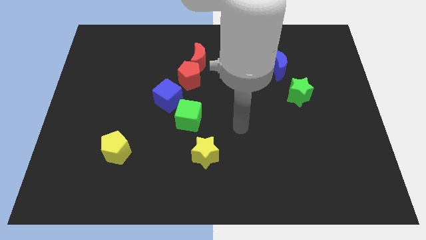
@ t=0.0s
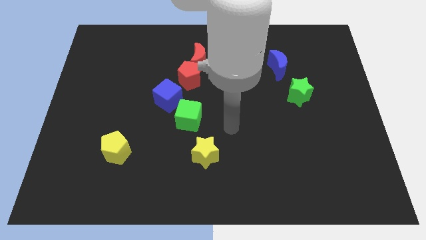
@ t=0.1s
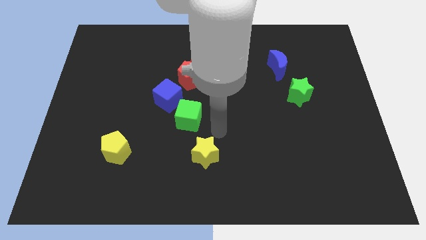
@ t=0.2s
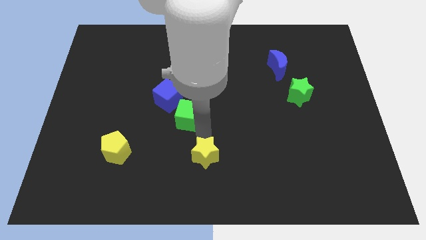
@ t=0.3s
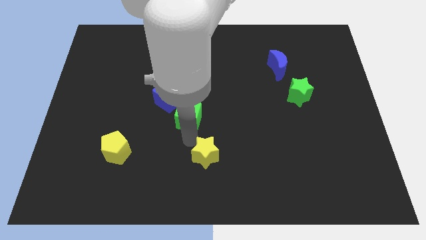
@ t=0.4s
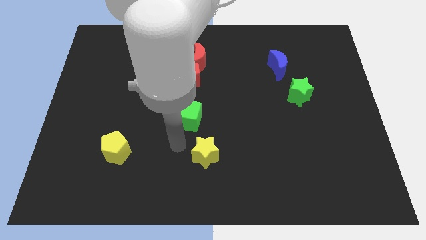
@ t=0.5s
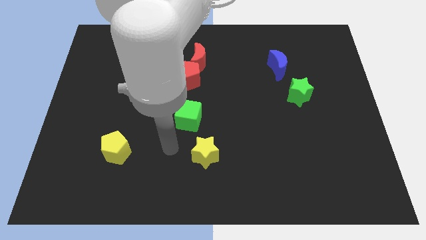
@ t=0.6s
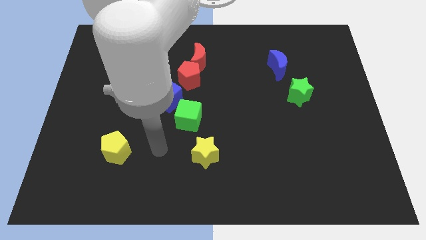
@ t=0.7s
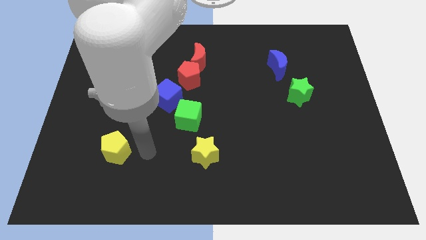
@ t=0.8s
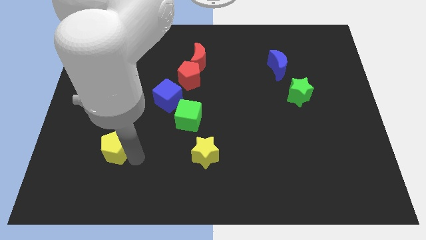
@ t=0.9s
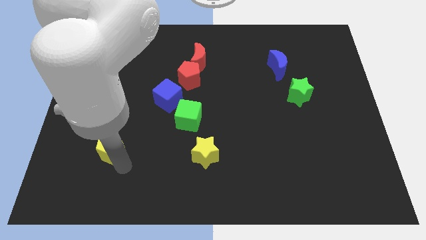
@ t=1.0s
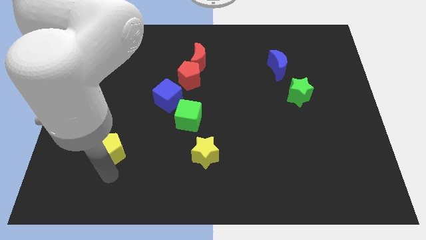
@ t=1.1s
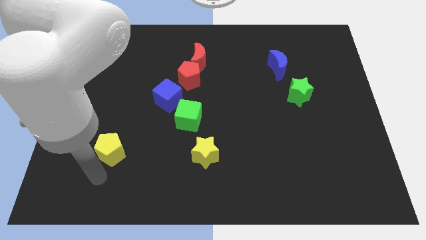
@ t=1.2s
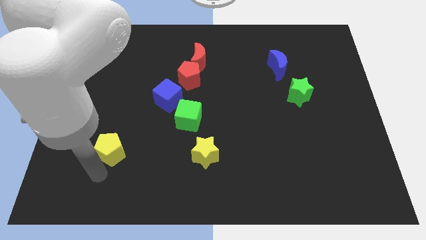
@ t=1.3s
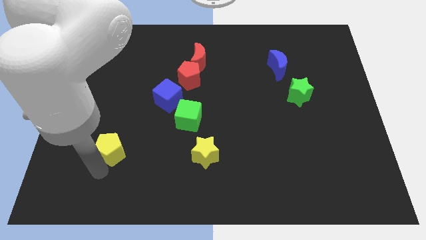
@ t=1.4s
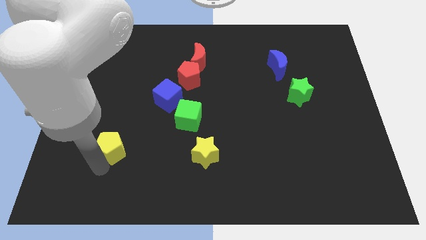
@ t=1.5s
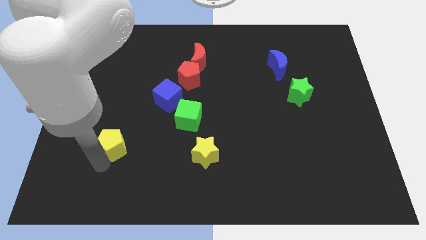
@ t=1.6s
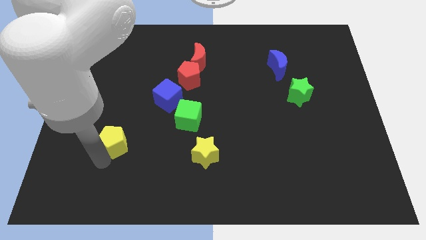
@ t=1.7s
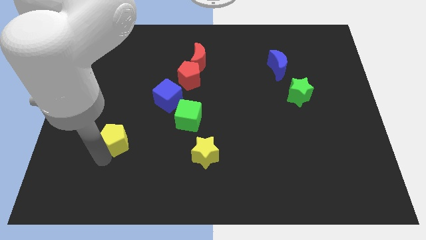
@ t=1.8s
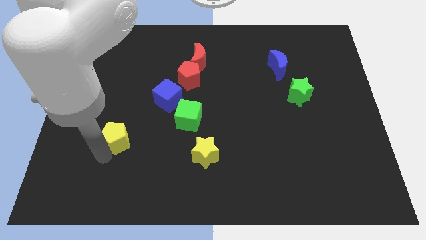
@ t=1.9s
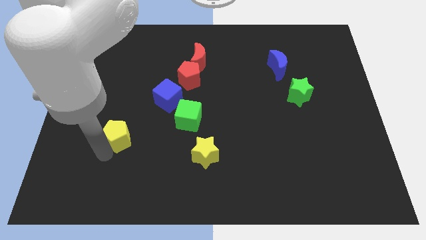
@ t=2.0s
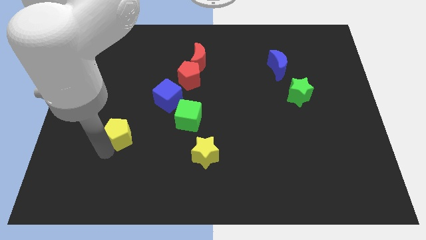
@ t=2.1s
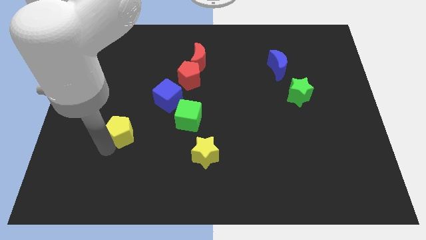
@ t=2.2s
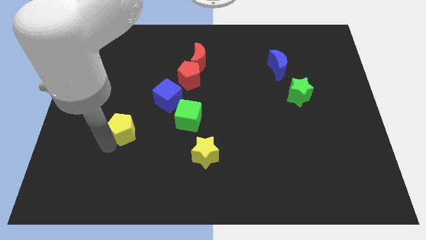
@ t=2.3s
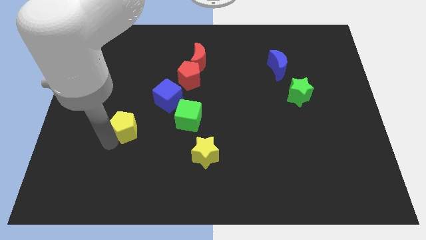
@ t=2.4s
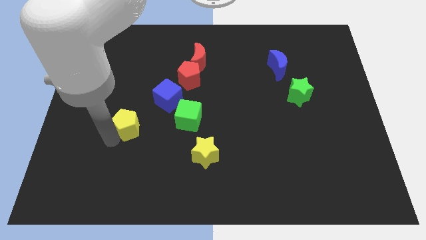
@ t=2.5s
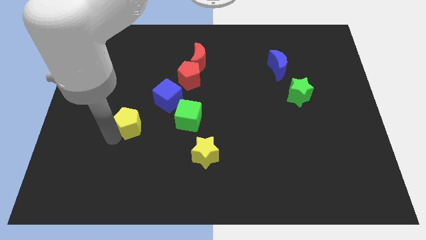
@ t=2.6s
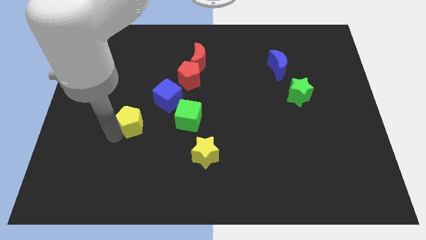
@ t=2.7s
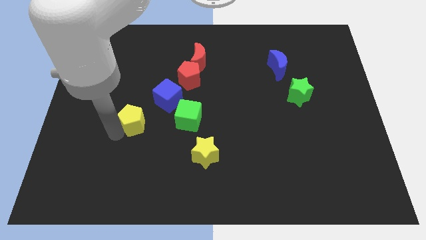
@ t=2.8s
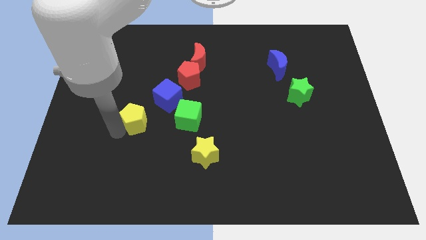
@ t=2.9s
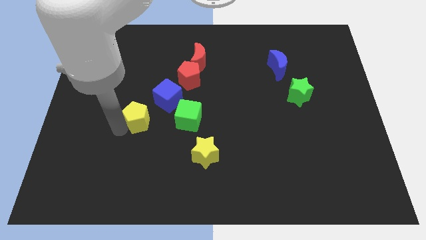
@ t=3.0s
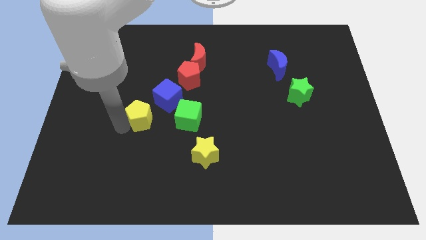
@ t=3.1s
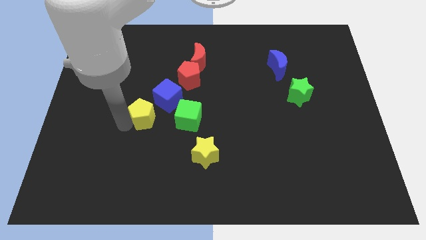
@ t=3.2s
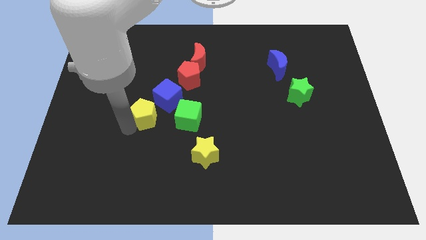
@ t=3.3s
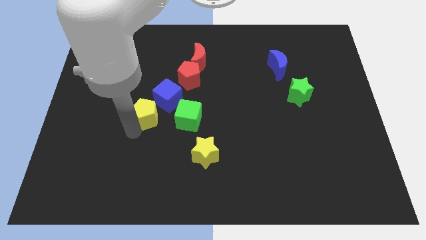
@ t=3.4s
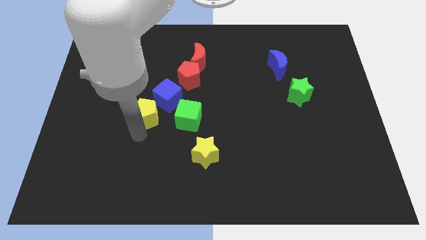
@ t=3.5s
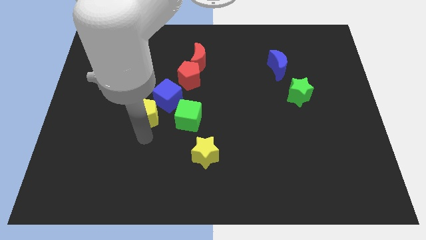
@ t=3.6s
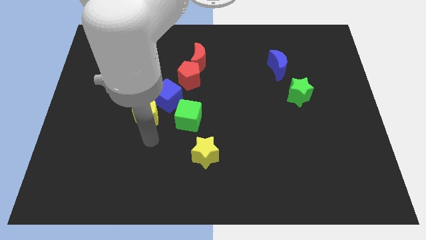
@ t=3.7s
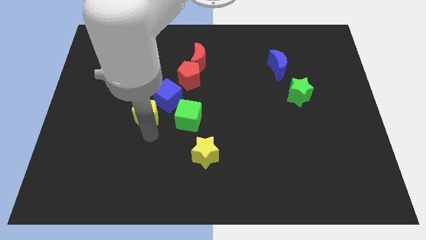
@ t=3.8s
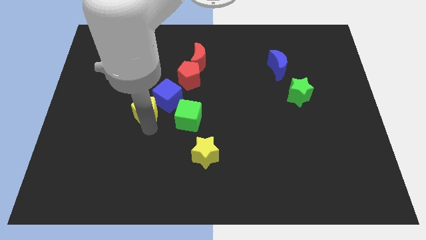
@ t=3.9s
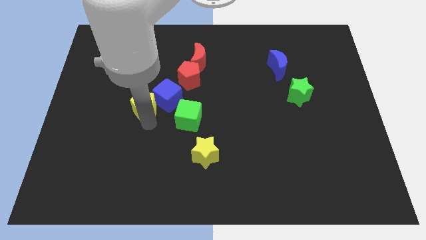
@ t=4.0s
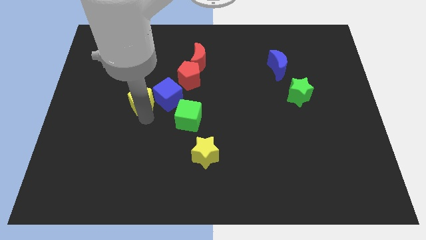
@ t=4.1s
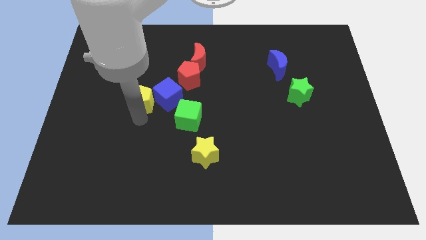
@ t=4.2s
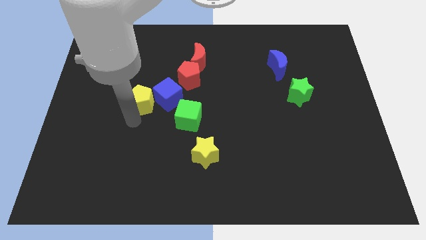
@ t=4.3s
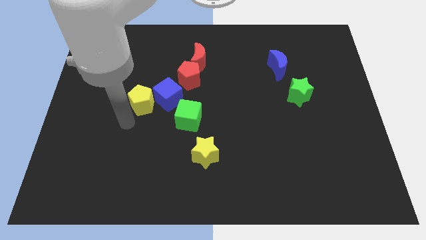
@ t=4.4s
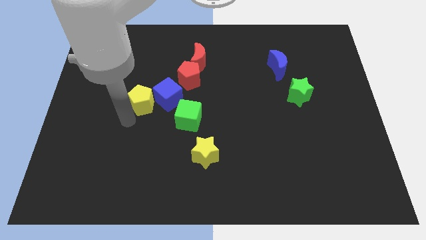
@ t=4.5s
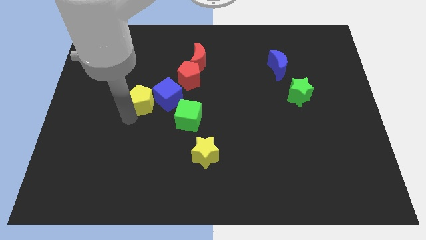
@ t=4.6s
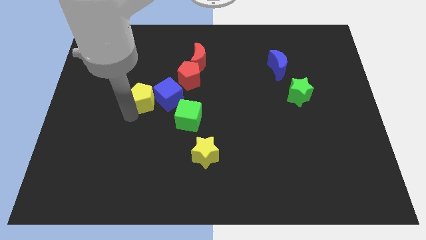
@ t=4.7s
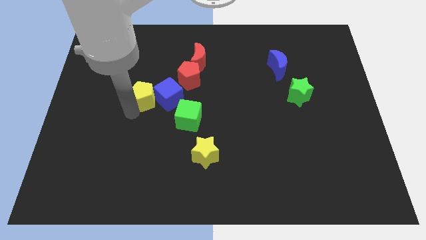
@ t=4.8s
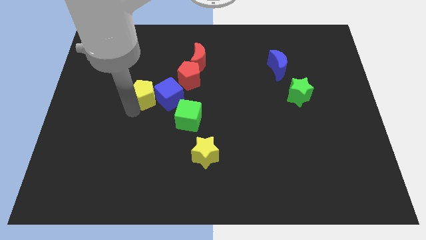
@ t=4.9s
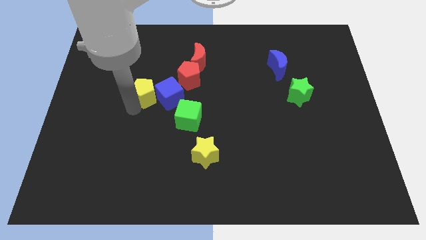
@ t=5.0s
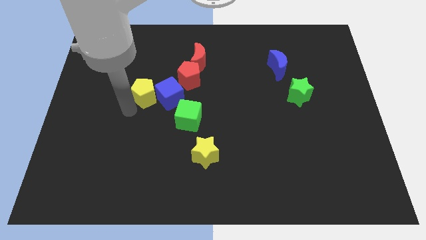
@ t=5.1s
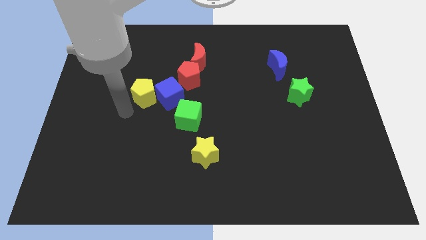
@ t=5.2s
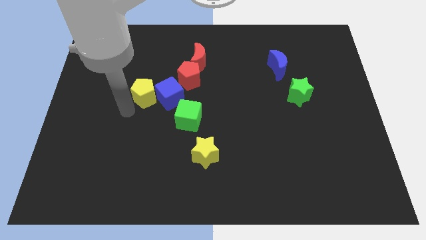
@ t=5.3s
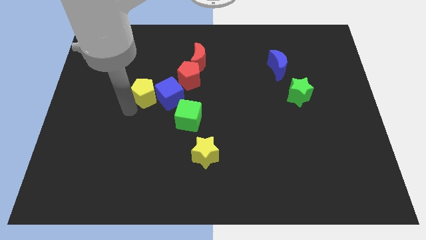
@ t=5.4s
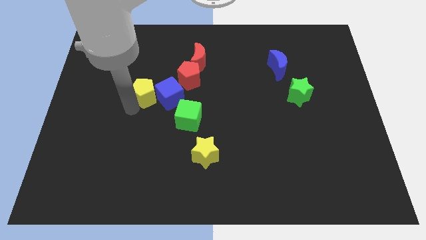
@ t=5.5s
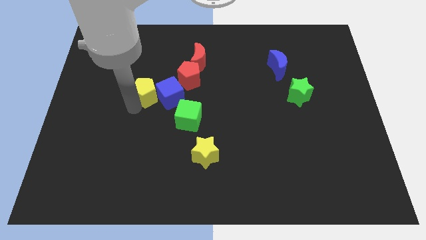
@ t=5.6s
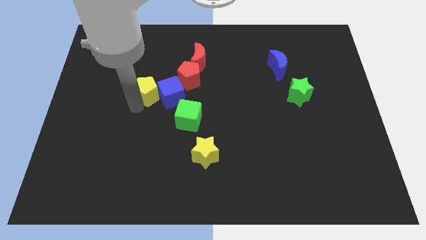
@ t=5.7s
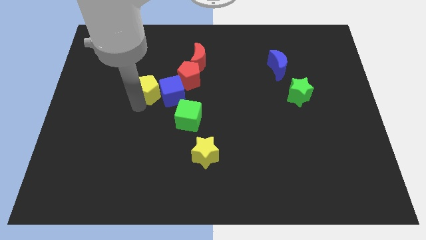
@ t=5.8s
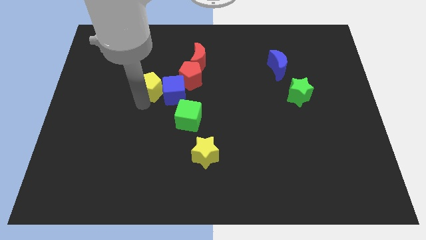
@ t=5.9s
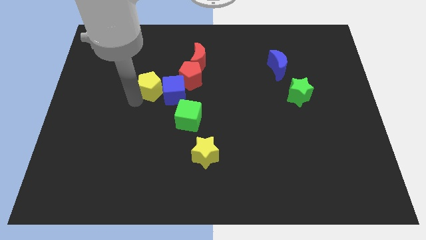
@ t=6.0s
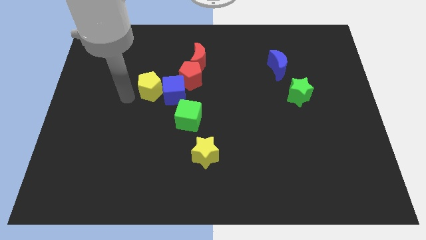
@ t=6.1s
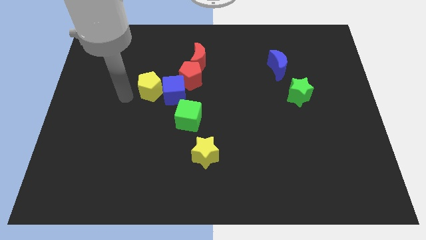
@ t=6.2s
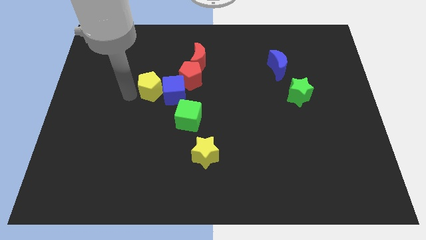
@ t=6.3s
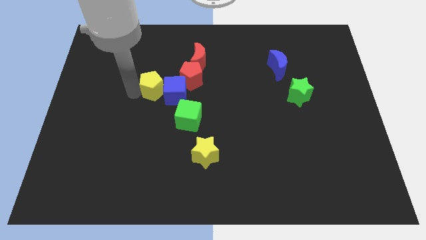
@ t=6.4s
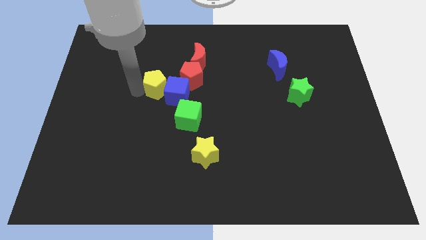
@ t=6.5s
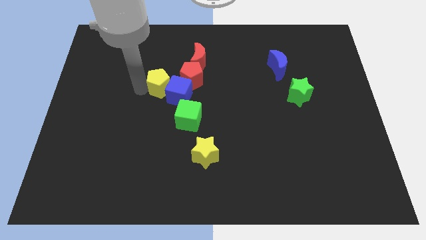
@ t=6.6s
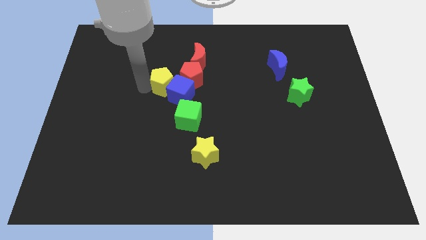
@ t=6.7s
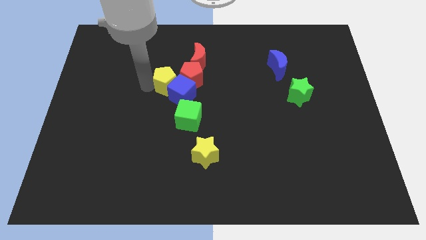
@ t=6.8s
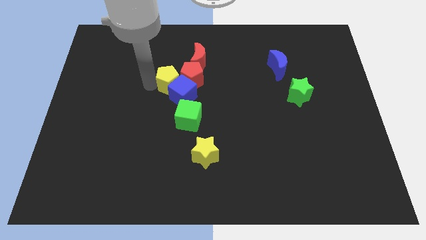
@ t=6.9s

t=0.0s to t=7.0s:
put the yellow pentagon to the red pentagon
